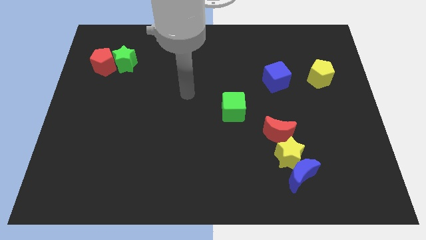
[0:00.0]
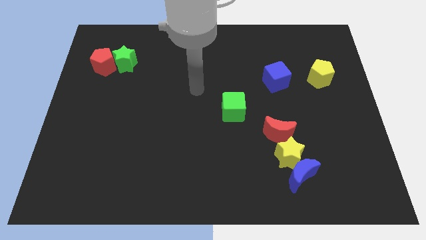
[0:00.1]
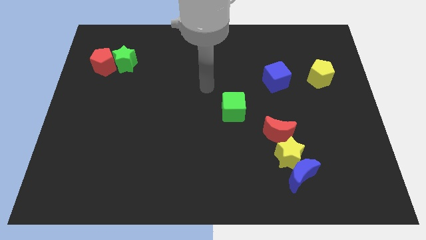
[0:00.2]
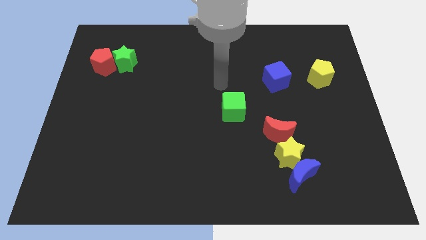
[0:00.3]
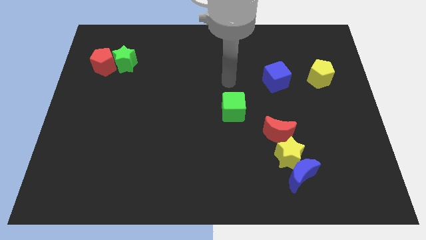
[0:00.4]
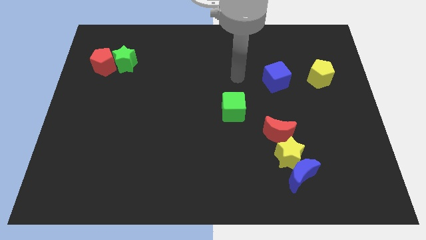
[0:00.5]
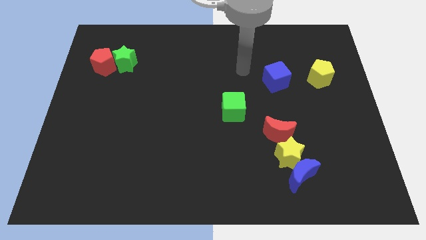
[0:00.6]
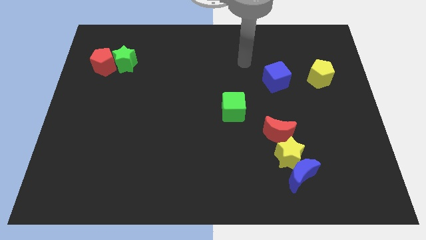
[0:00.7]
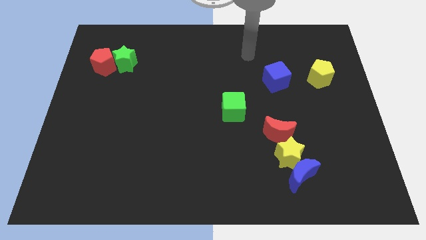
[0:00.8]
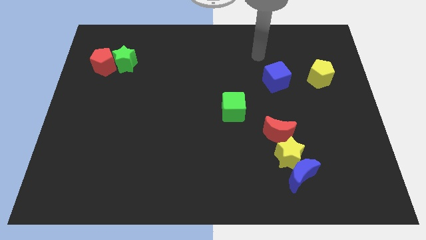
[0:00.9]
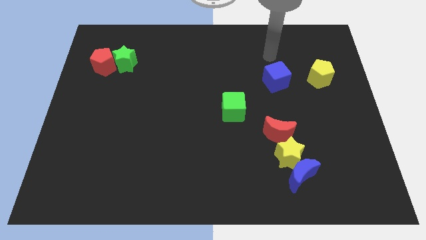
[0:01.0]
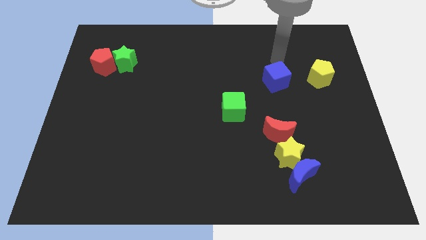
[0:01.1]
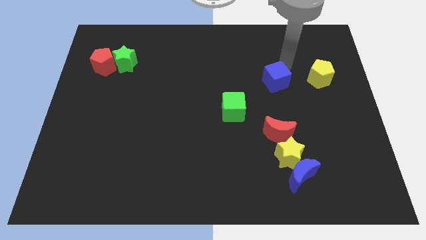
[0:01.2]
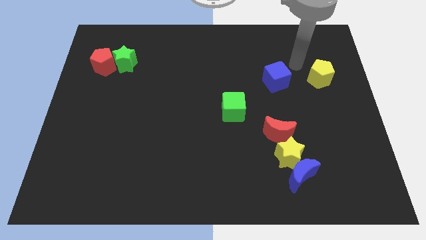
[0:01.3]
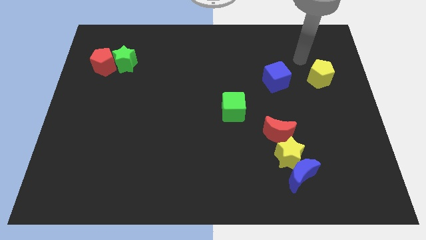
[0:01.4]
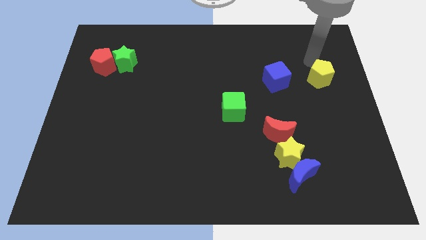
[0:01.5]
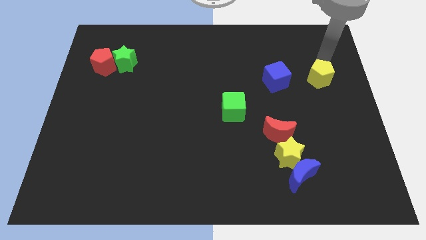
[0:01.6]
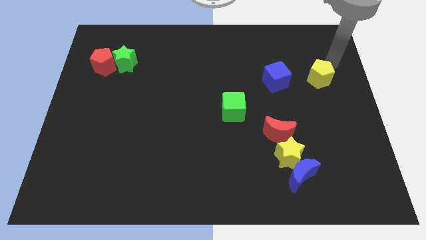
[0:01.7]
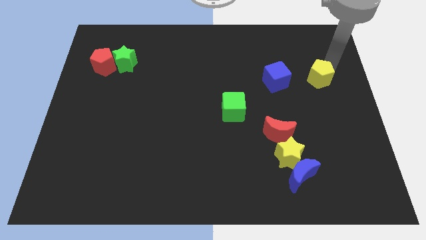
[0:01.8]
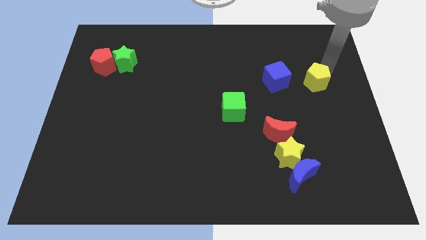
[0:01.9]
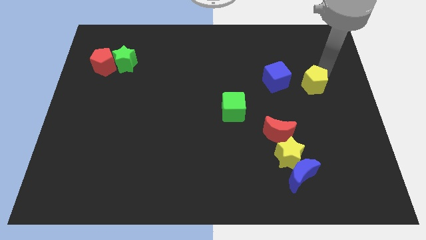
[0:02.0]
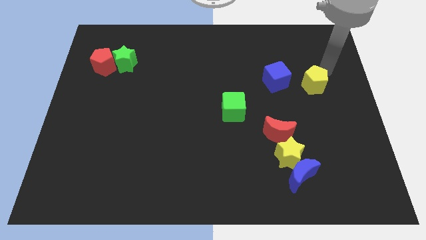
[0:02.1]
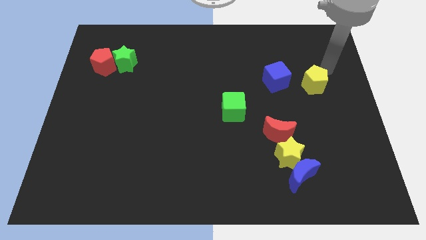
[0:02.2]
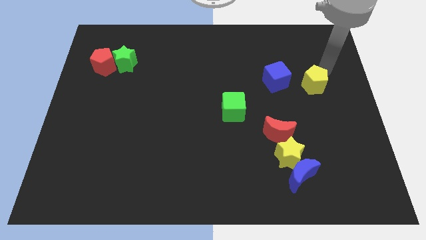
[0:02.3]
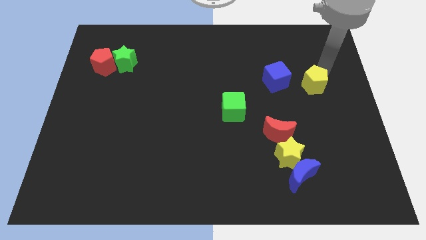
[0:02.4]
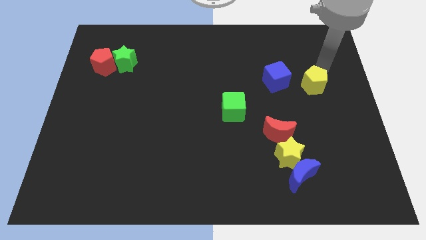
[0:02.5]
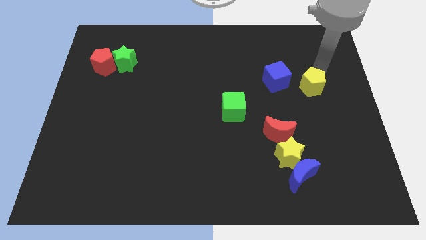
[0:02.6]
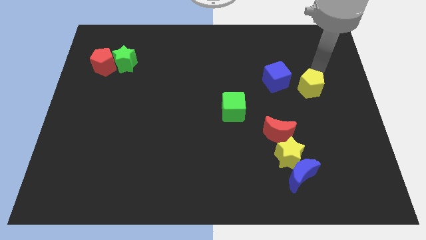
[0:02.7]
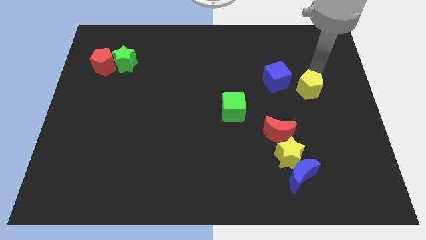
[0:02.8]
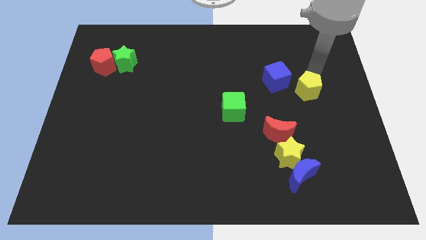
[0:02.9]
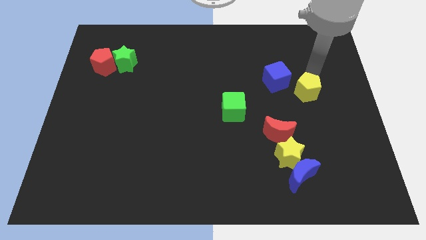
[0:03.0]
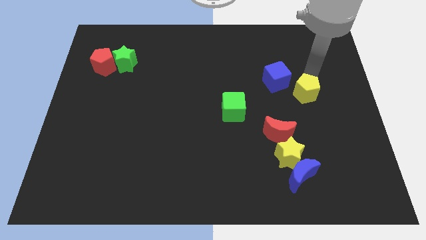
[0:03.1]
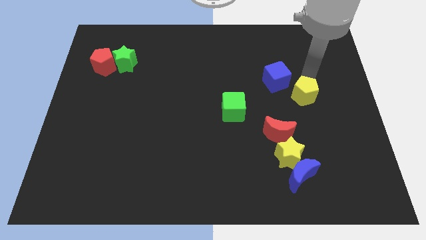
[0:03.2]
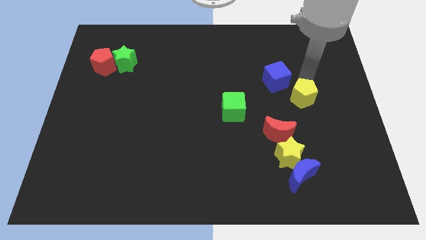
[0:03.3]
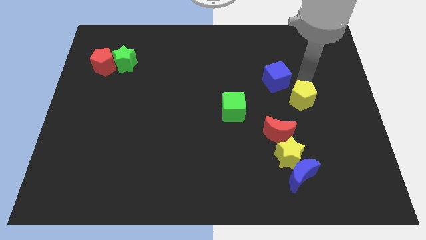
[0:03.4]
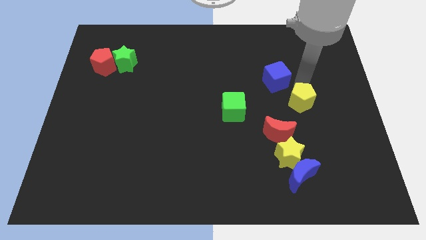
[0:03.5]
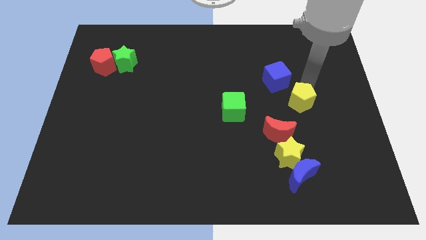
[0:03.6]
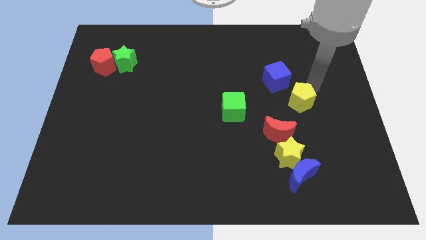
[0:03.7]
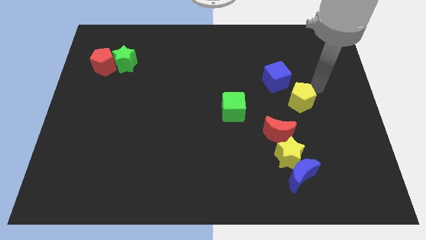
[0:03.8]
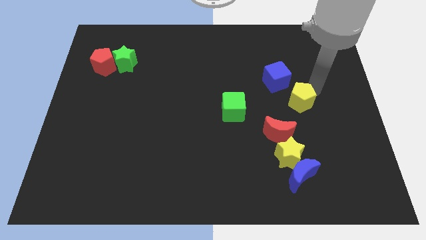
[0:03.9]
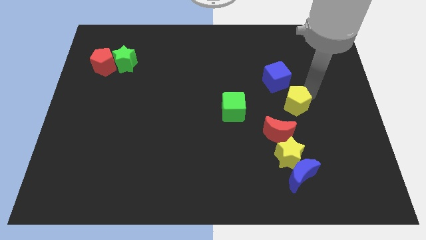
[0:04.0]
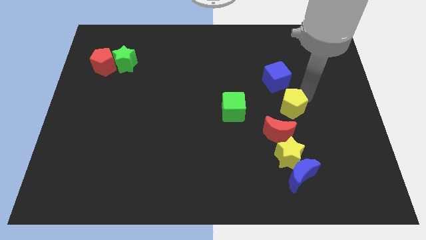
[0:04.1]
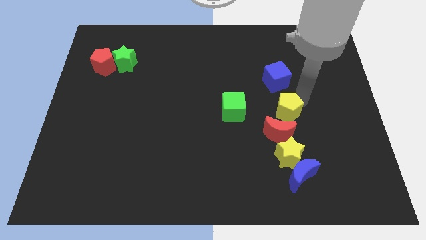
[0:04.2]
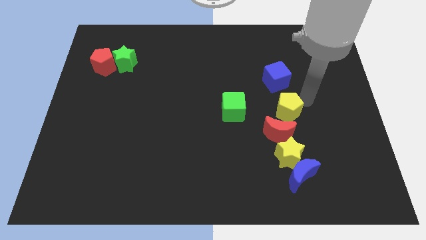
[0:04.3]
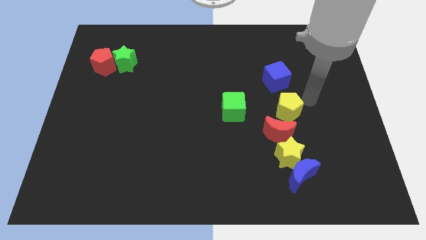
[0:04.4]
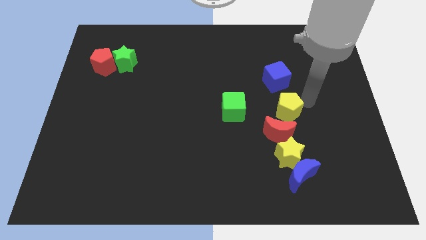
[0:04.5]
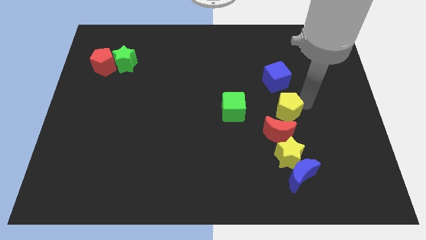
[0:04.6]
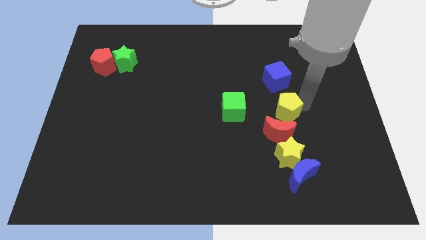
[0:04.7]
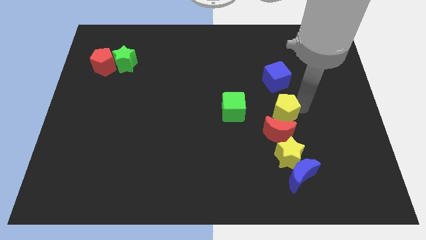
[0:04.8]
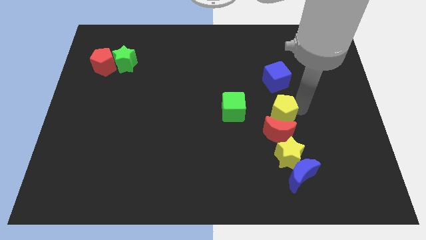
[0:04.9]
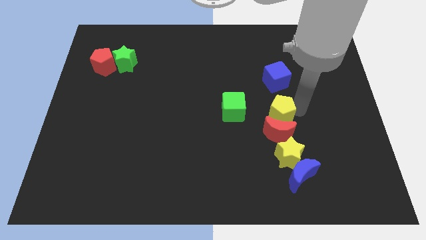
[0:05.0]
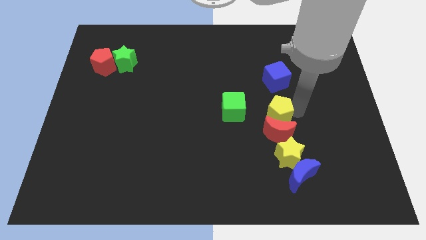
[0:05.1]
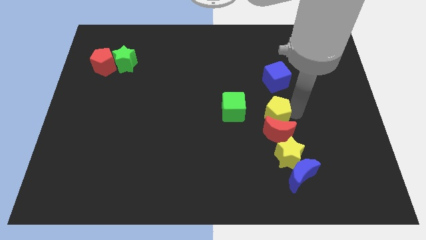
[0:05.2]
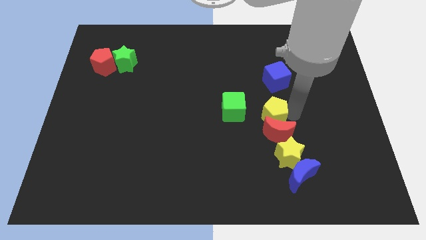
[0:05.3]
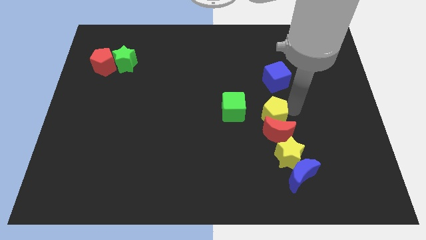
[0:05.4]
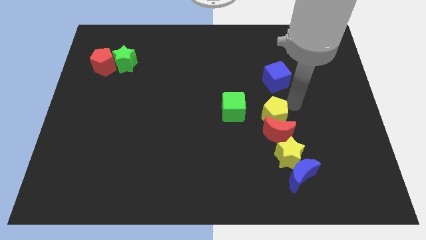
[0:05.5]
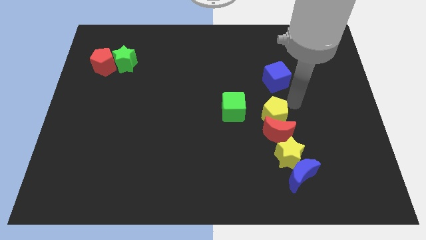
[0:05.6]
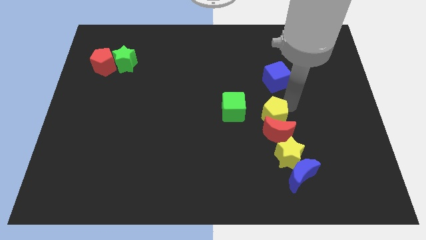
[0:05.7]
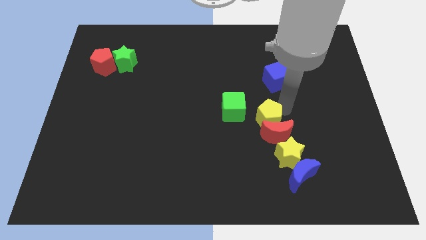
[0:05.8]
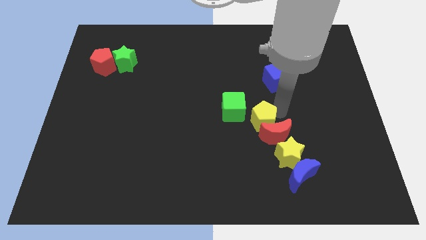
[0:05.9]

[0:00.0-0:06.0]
slide the yellow pentagon downwards and left

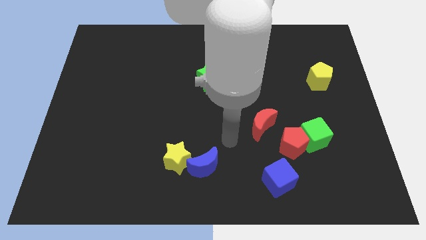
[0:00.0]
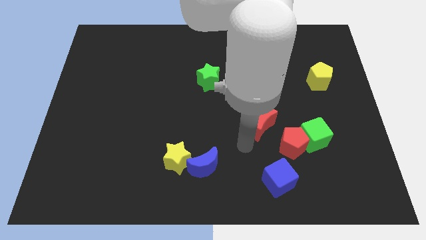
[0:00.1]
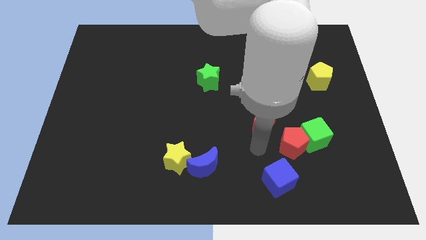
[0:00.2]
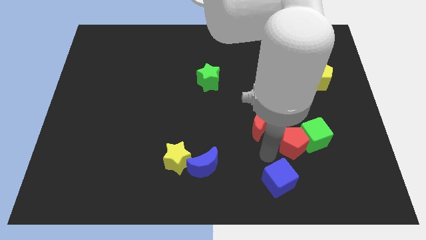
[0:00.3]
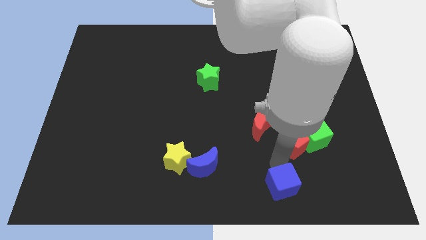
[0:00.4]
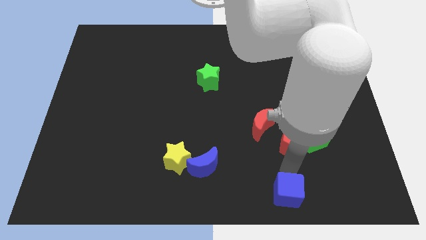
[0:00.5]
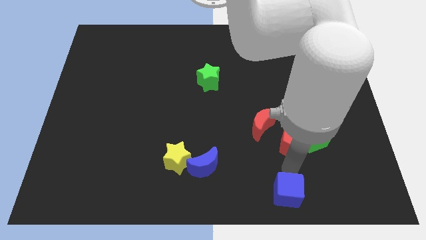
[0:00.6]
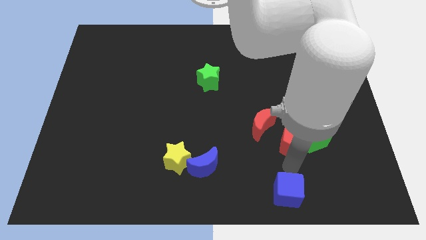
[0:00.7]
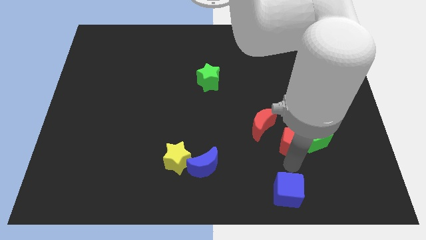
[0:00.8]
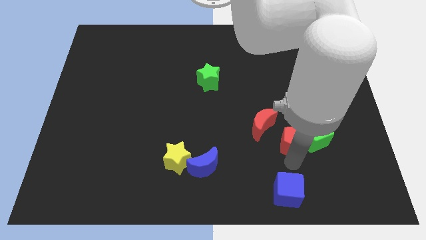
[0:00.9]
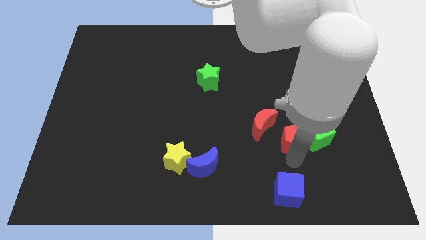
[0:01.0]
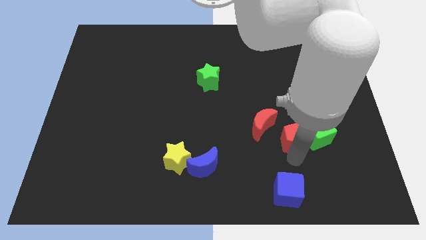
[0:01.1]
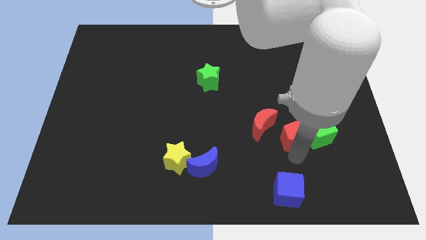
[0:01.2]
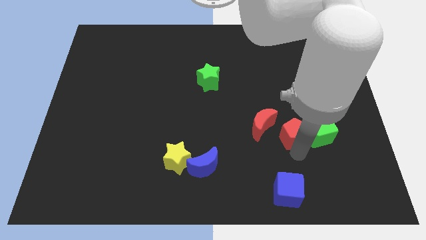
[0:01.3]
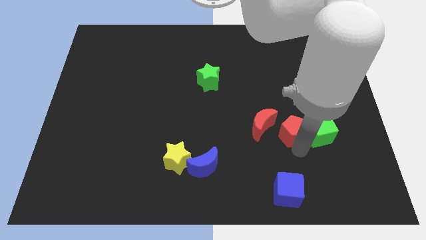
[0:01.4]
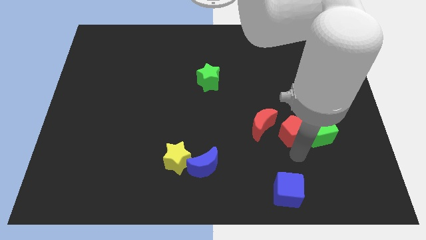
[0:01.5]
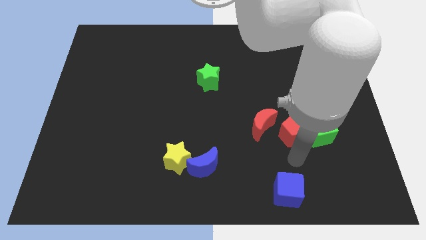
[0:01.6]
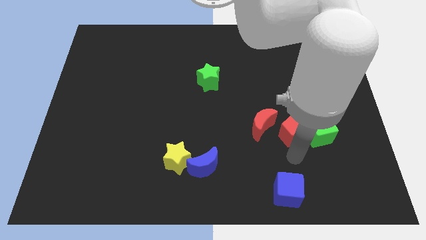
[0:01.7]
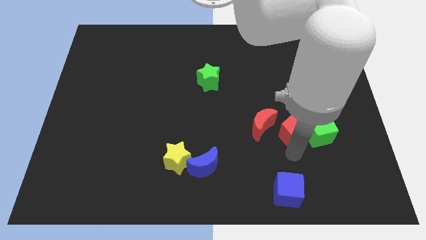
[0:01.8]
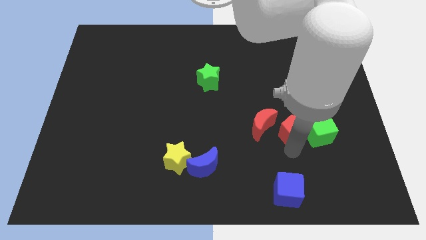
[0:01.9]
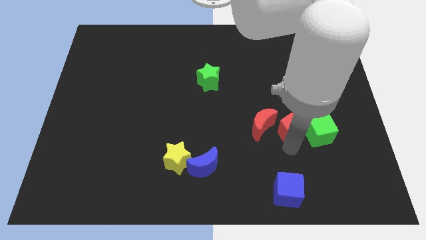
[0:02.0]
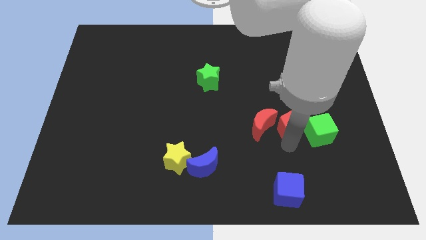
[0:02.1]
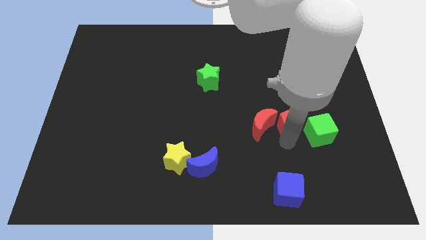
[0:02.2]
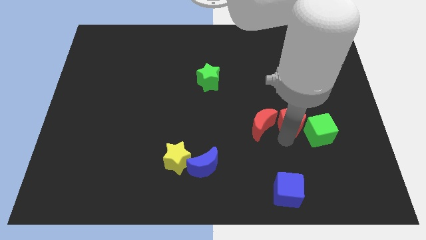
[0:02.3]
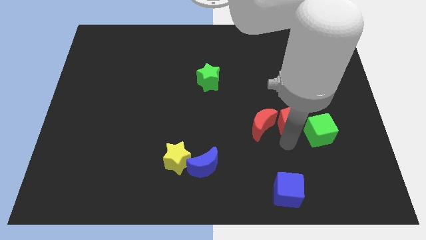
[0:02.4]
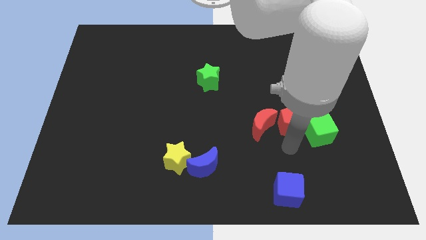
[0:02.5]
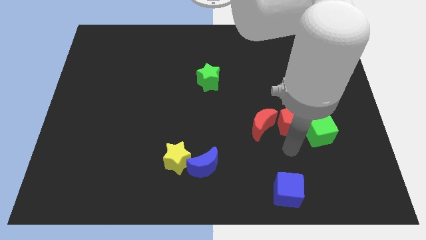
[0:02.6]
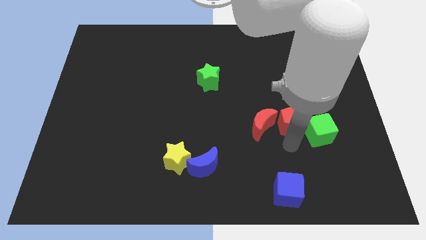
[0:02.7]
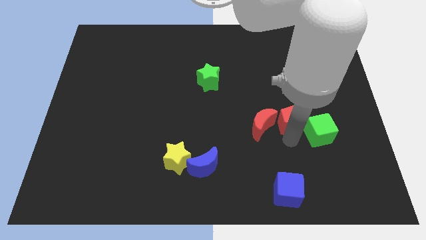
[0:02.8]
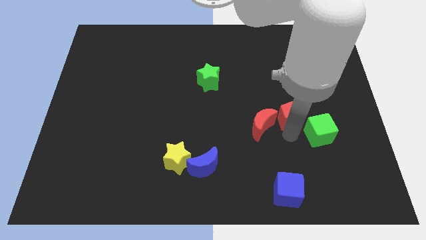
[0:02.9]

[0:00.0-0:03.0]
slide the red pentagon somewhat up
